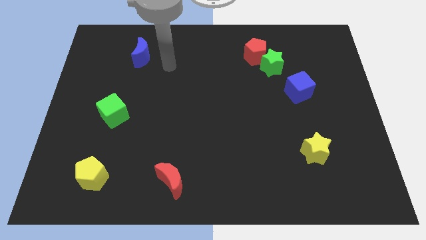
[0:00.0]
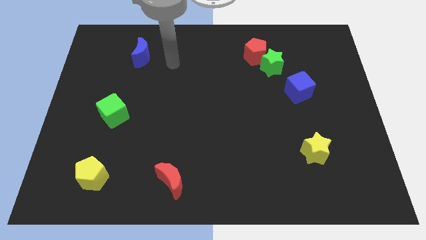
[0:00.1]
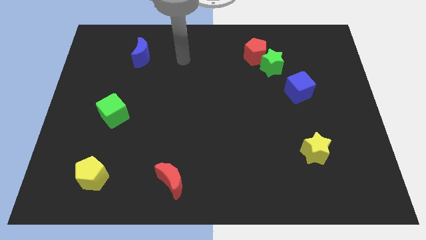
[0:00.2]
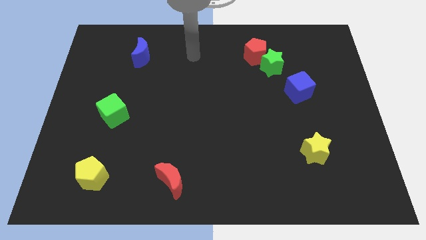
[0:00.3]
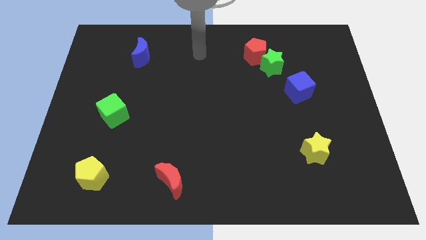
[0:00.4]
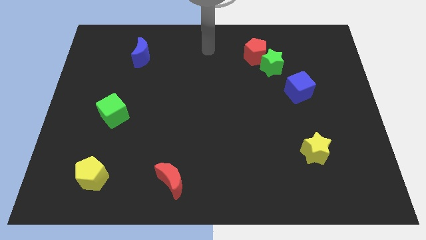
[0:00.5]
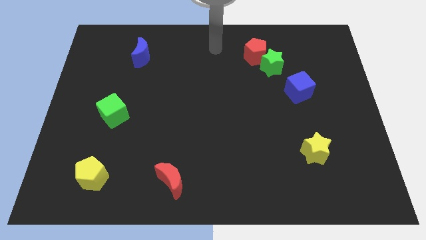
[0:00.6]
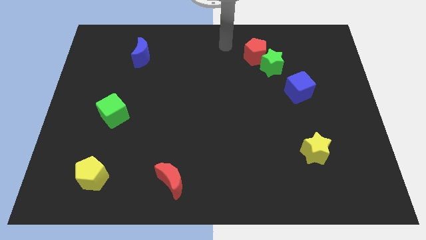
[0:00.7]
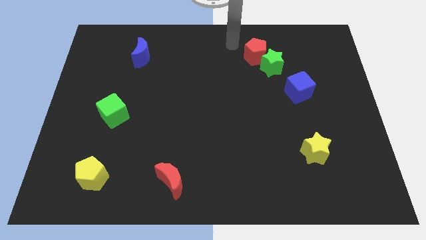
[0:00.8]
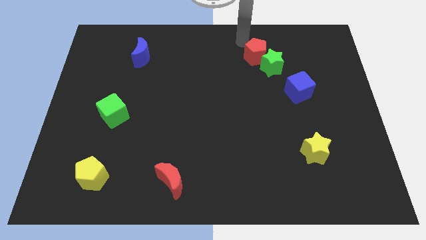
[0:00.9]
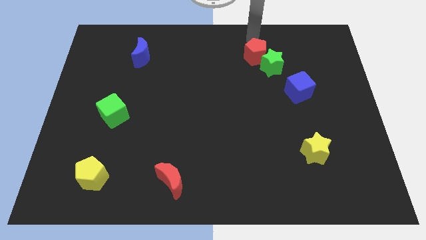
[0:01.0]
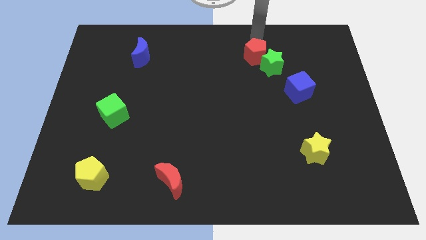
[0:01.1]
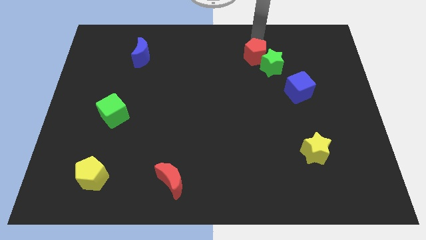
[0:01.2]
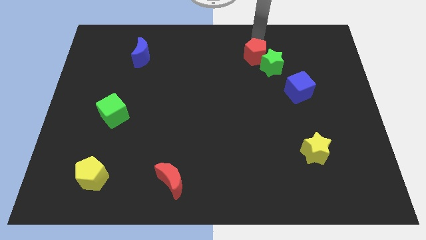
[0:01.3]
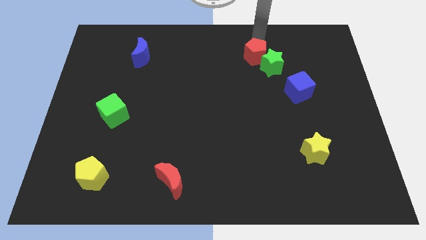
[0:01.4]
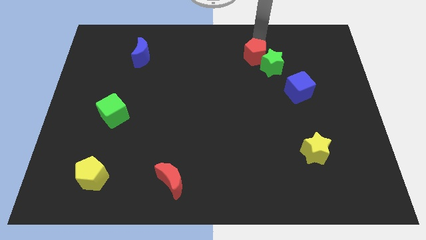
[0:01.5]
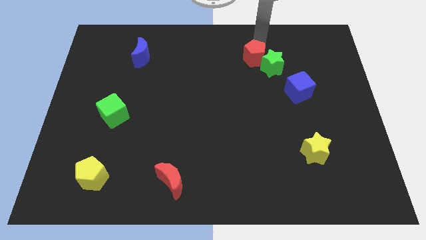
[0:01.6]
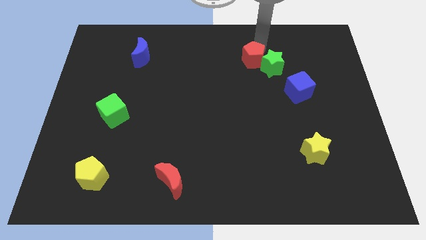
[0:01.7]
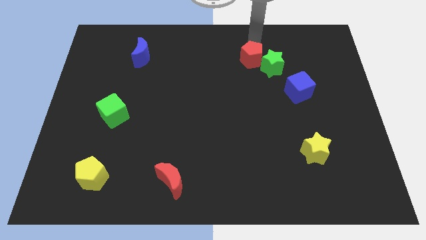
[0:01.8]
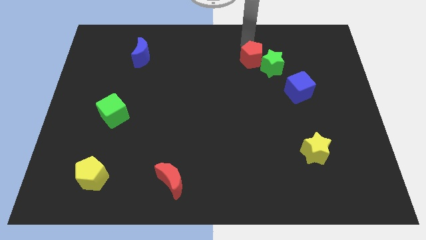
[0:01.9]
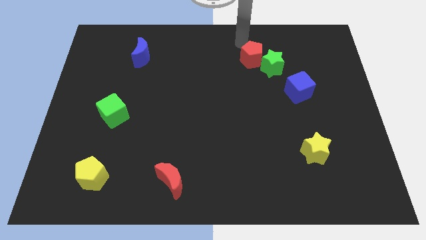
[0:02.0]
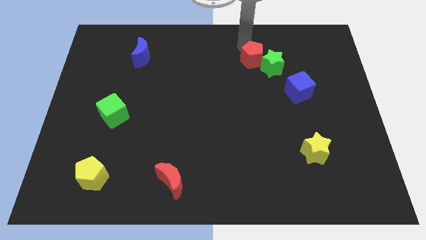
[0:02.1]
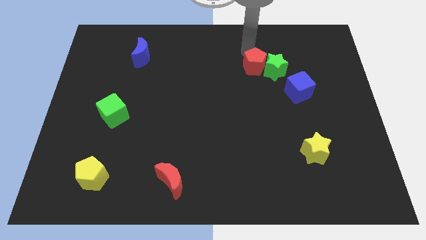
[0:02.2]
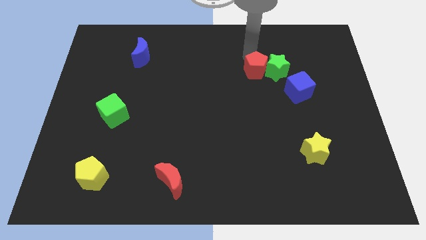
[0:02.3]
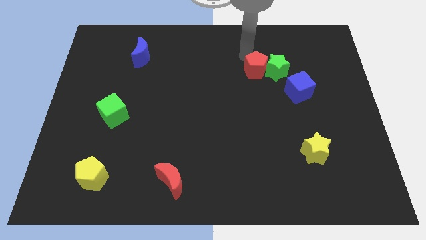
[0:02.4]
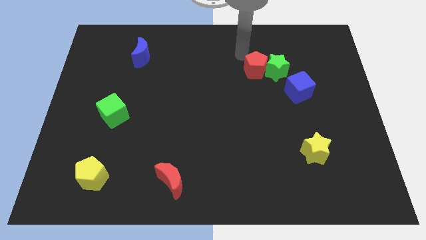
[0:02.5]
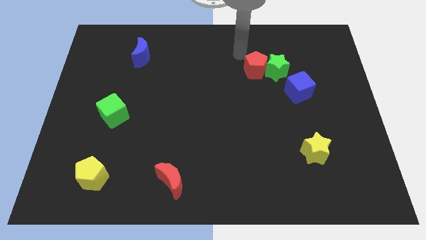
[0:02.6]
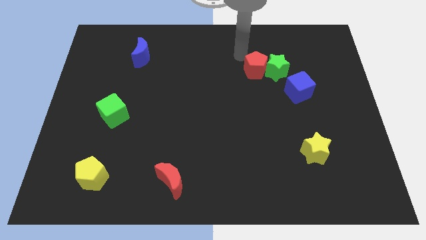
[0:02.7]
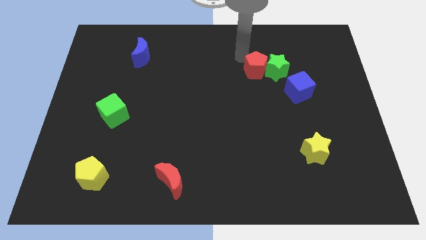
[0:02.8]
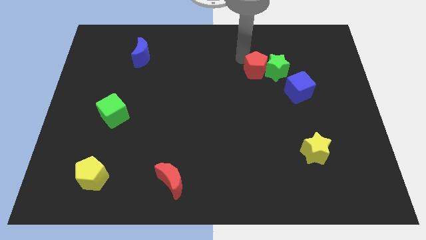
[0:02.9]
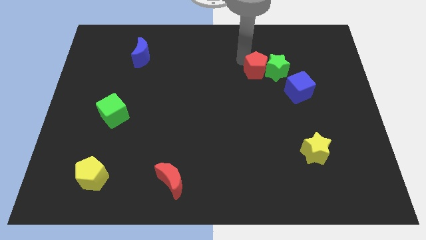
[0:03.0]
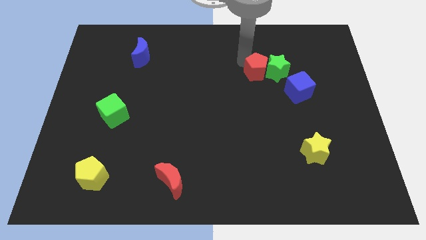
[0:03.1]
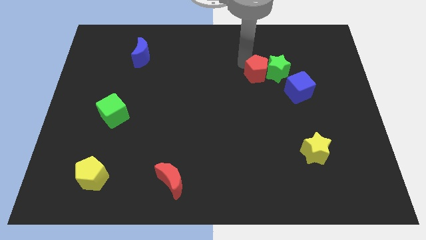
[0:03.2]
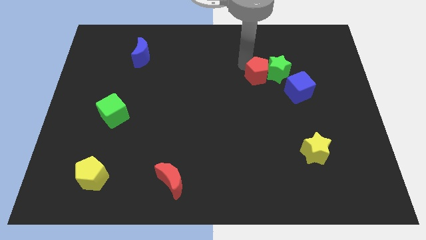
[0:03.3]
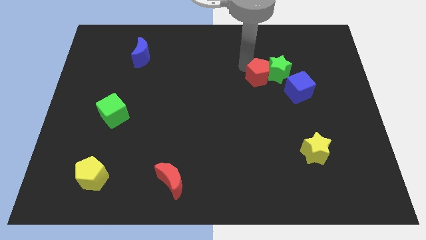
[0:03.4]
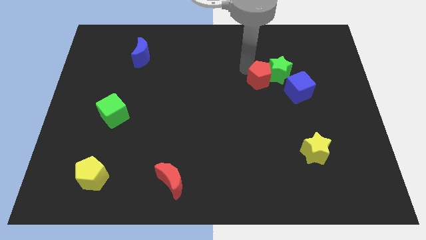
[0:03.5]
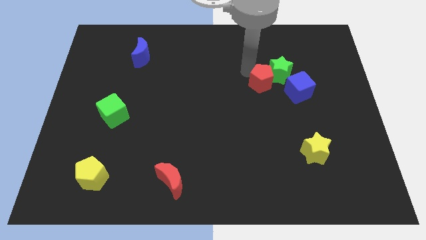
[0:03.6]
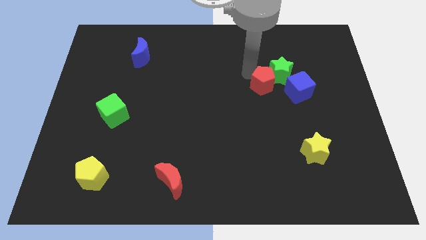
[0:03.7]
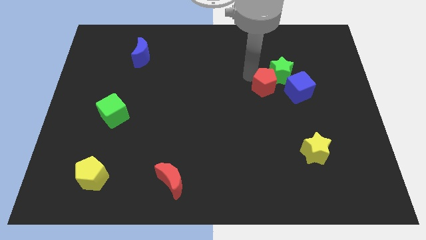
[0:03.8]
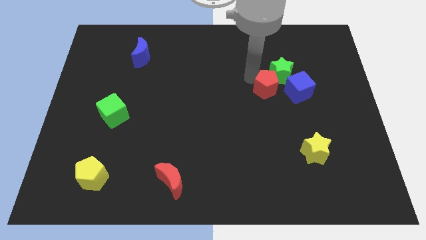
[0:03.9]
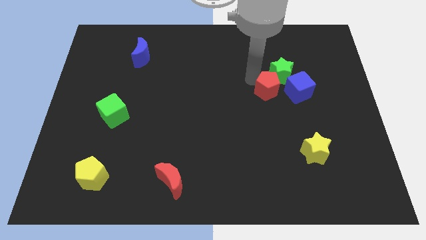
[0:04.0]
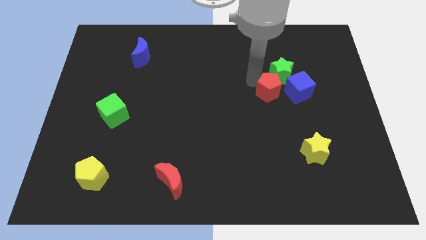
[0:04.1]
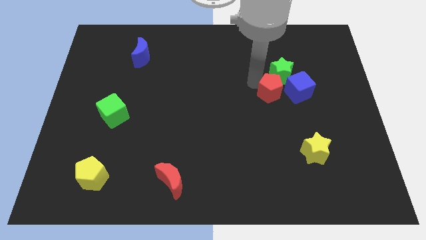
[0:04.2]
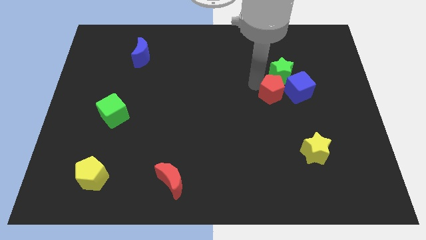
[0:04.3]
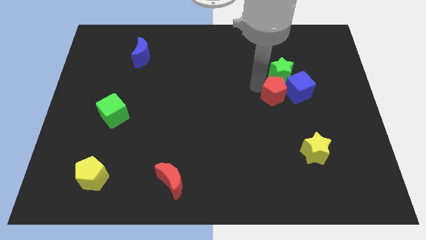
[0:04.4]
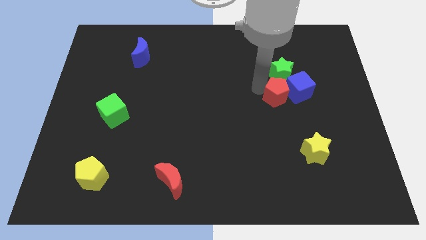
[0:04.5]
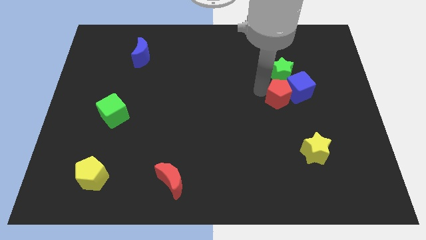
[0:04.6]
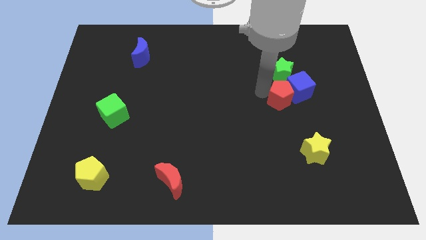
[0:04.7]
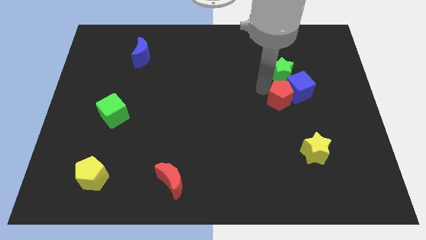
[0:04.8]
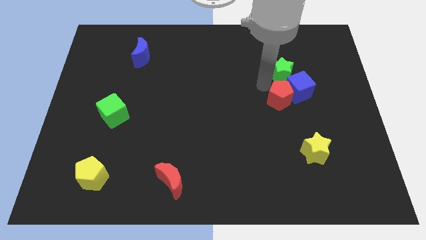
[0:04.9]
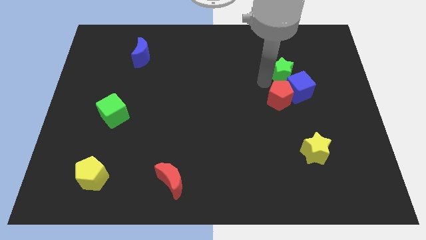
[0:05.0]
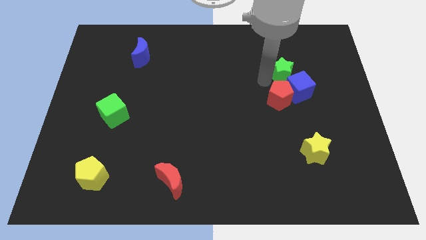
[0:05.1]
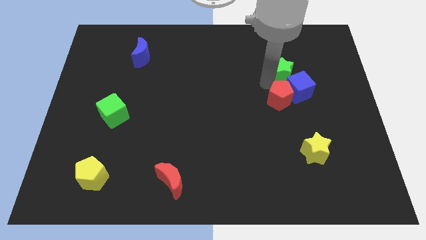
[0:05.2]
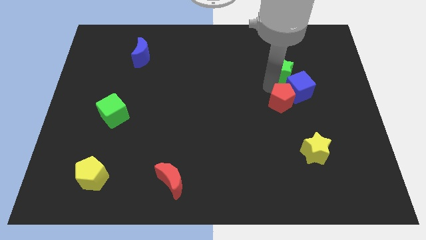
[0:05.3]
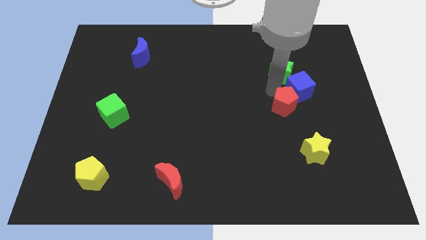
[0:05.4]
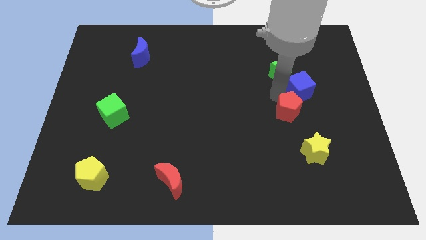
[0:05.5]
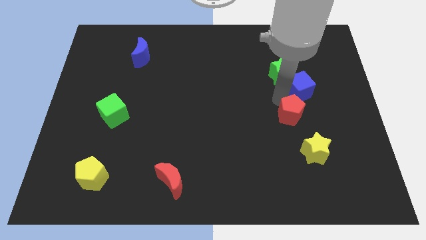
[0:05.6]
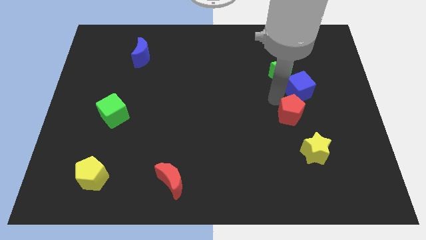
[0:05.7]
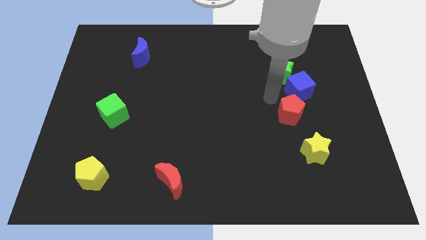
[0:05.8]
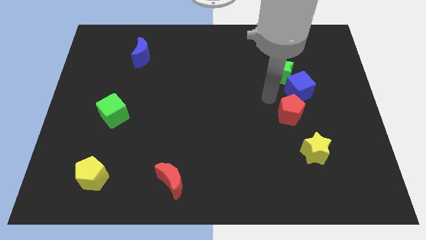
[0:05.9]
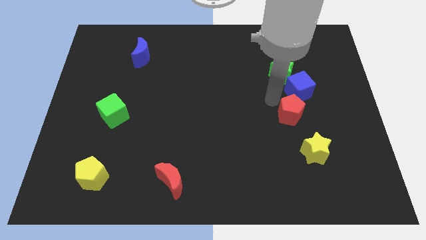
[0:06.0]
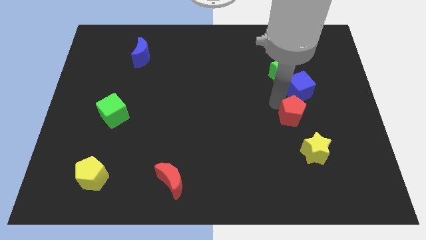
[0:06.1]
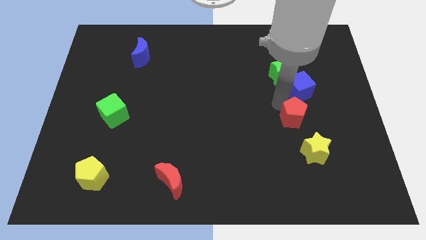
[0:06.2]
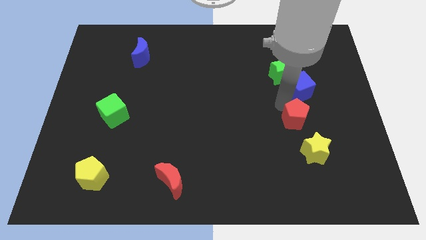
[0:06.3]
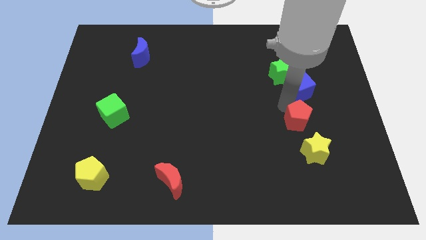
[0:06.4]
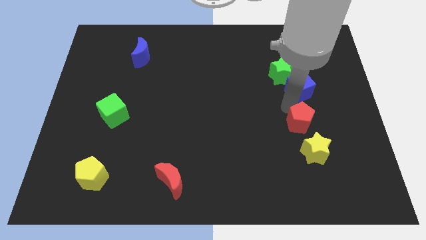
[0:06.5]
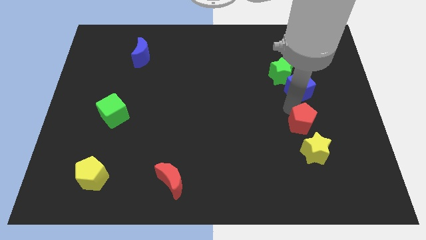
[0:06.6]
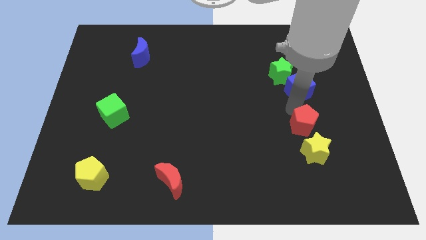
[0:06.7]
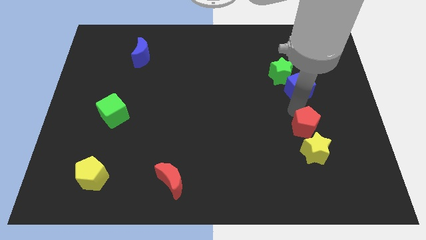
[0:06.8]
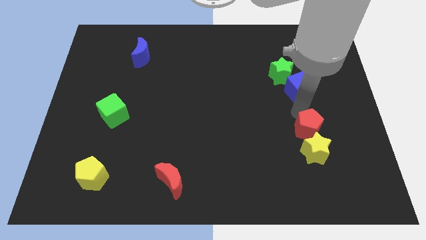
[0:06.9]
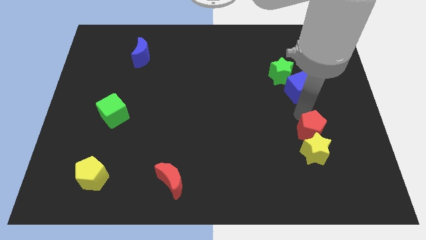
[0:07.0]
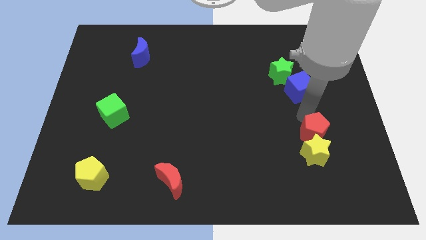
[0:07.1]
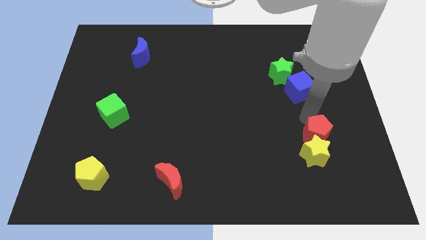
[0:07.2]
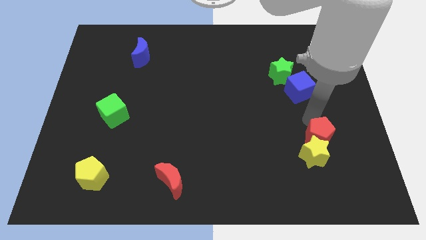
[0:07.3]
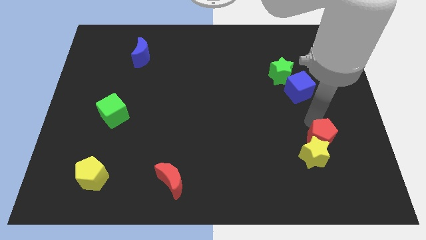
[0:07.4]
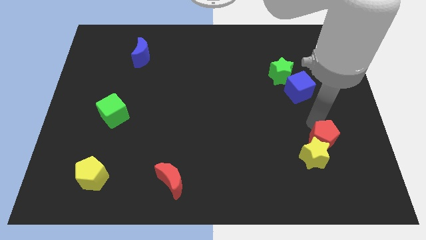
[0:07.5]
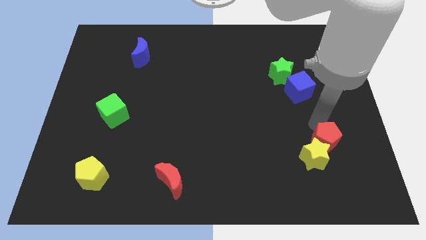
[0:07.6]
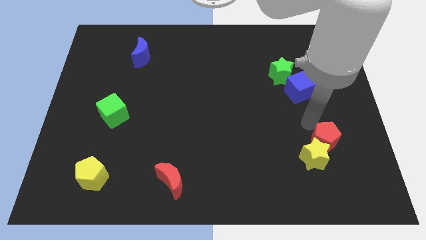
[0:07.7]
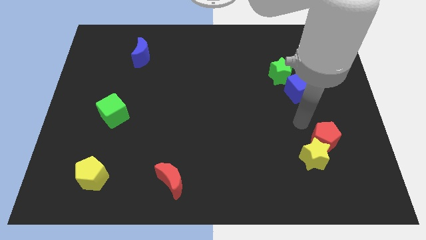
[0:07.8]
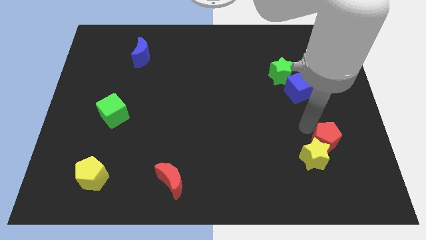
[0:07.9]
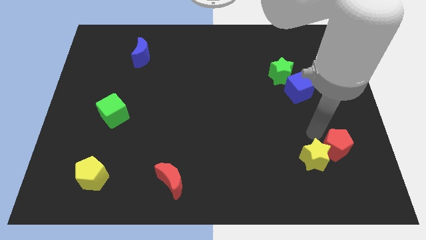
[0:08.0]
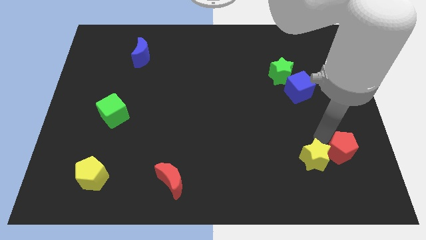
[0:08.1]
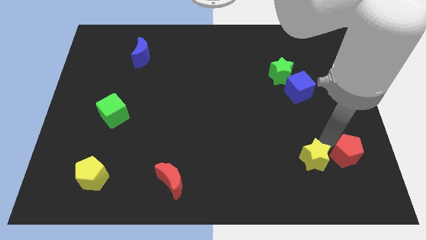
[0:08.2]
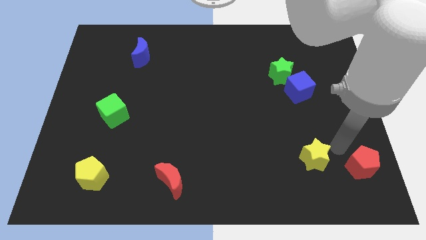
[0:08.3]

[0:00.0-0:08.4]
push the red pentagon to the lower right corner
